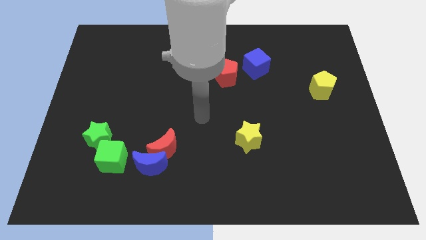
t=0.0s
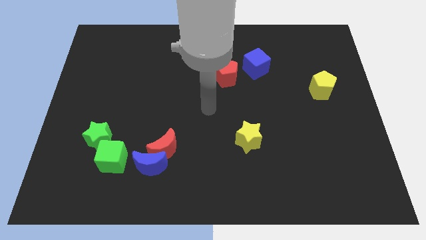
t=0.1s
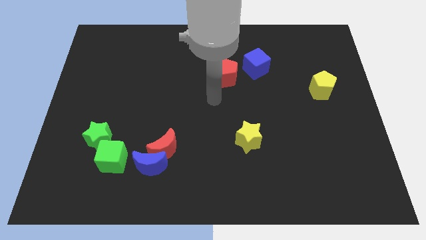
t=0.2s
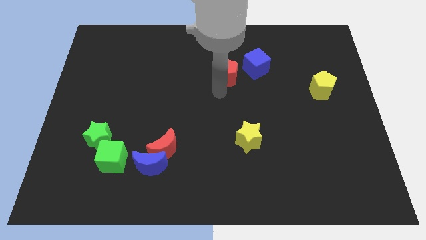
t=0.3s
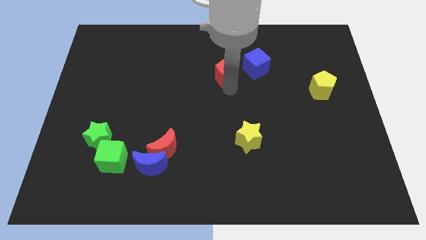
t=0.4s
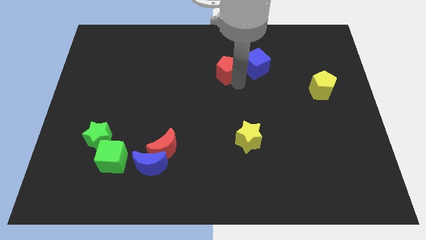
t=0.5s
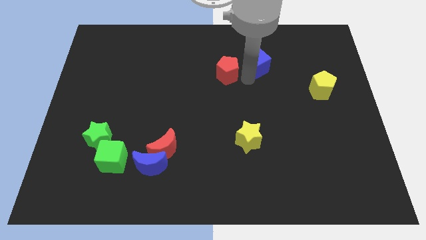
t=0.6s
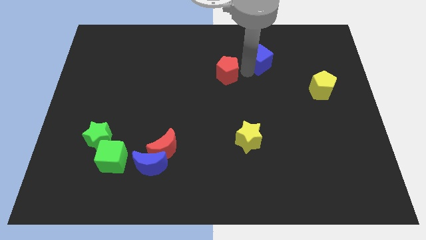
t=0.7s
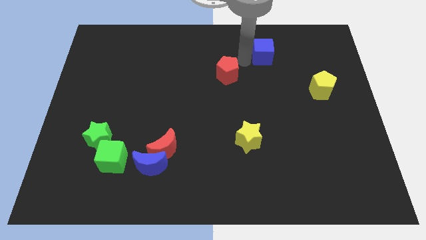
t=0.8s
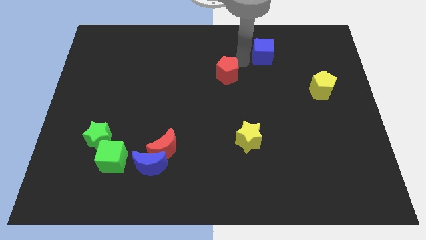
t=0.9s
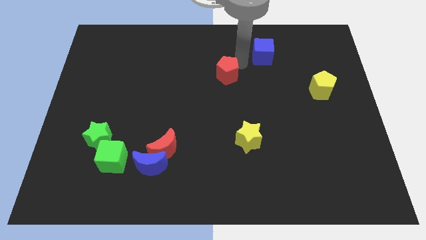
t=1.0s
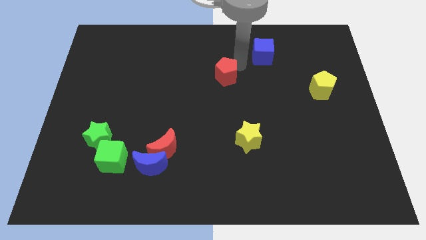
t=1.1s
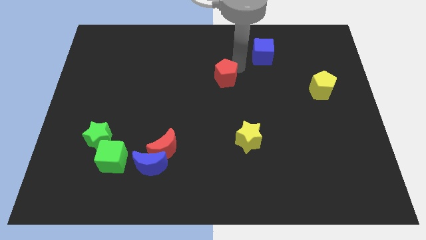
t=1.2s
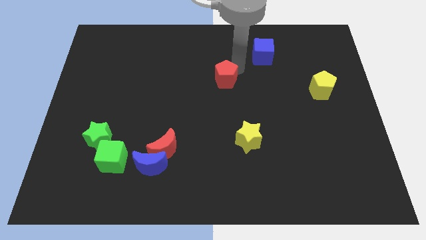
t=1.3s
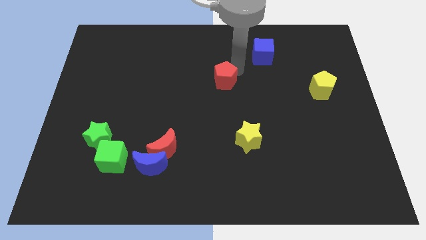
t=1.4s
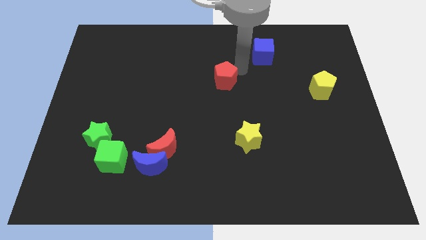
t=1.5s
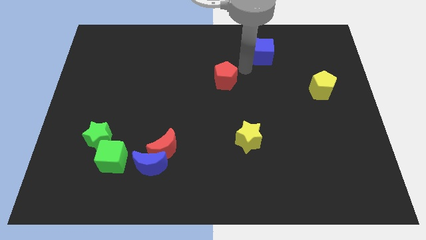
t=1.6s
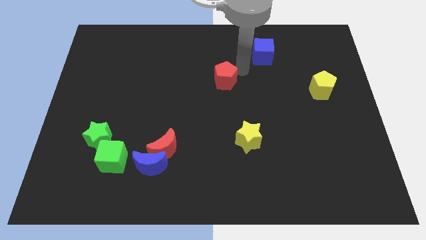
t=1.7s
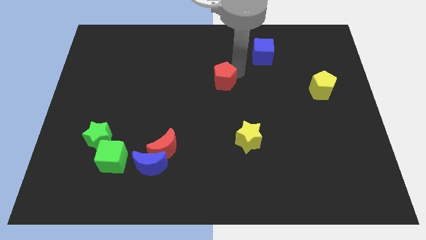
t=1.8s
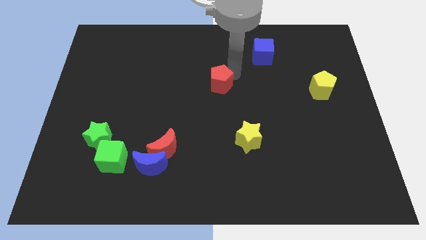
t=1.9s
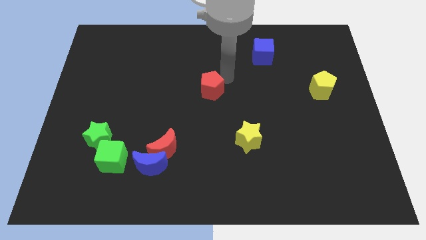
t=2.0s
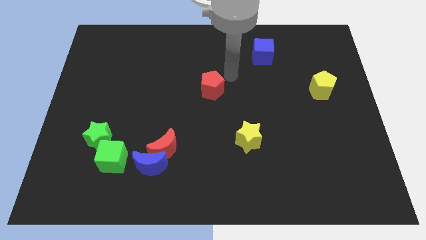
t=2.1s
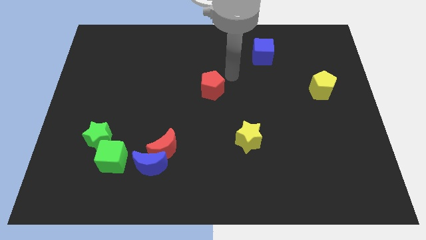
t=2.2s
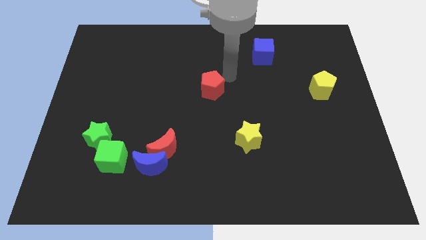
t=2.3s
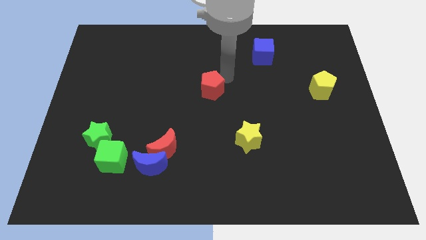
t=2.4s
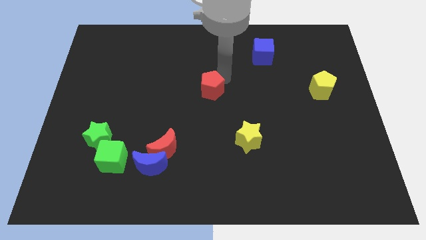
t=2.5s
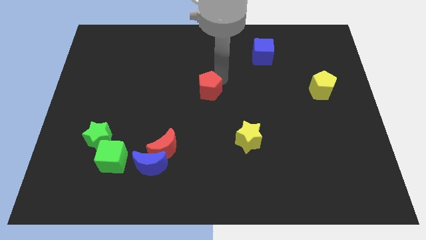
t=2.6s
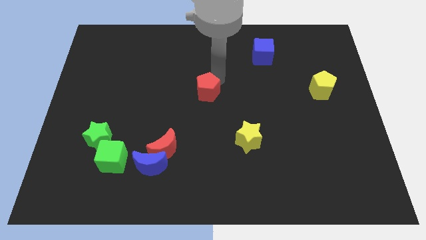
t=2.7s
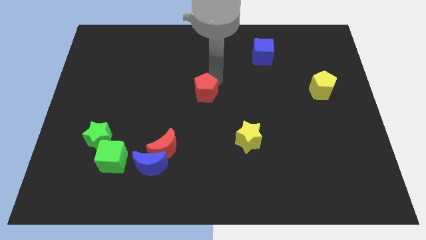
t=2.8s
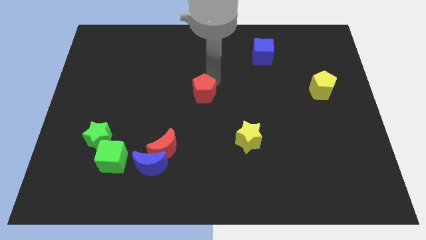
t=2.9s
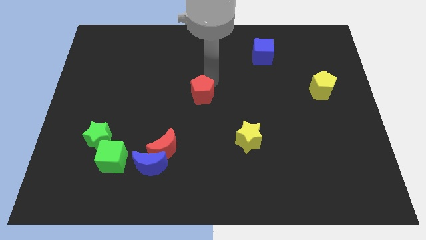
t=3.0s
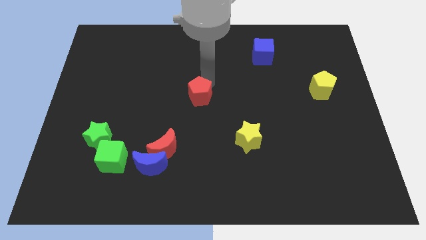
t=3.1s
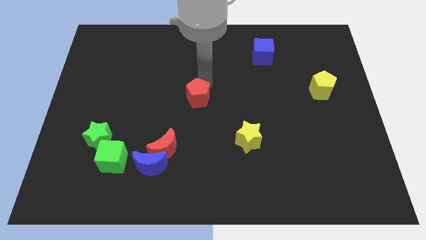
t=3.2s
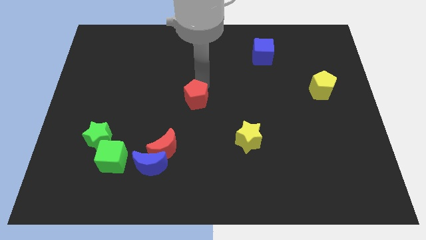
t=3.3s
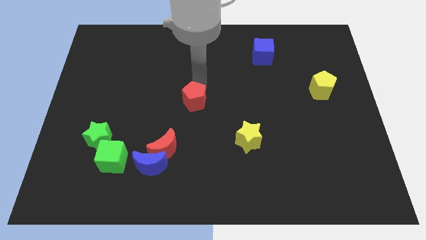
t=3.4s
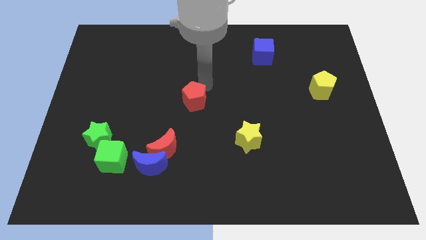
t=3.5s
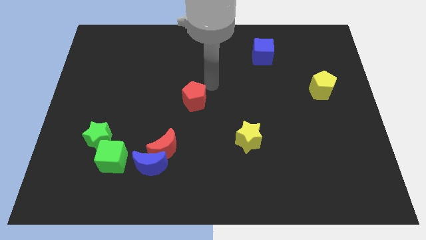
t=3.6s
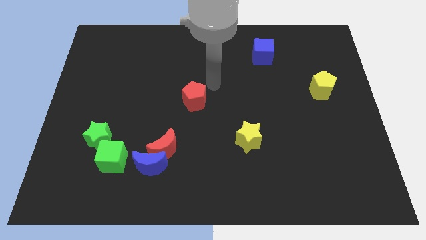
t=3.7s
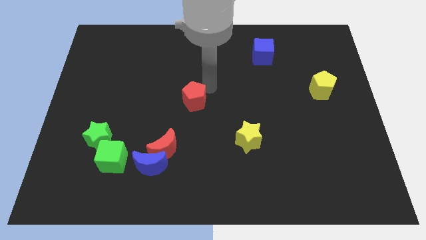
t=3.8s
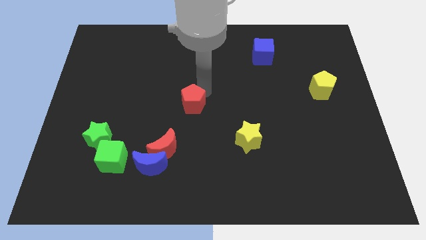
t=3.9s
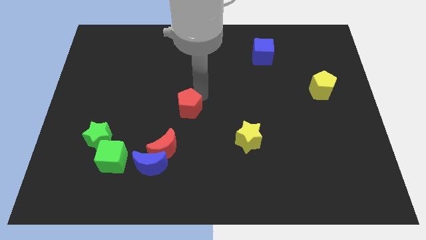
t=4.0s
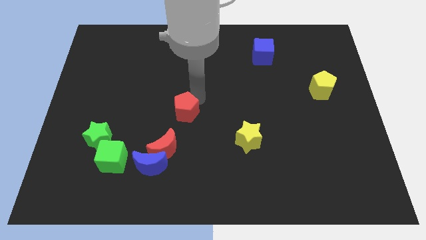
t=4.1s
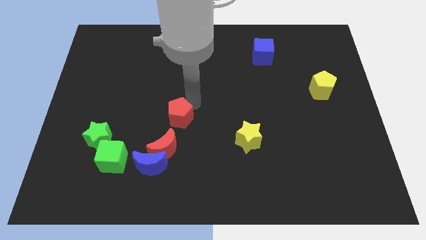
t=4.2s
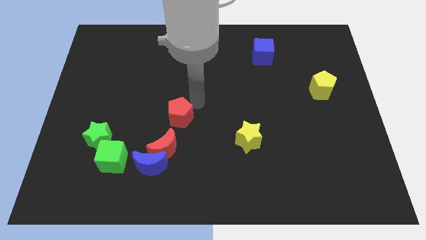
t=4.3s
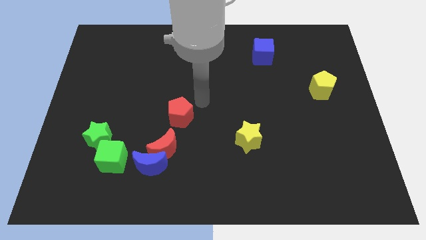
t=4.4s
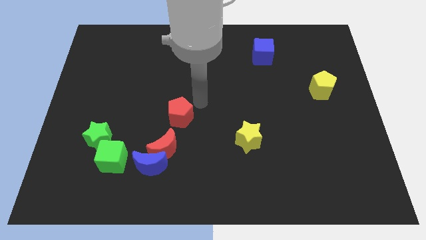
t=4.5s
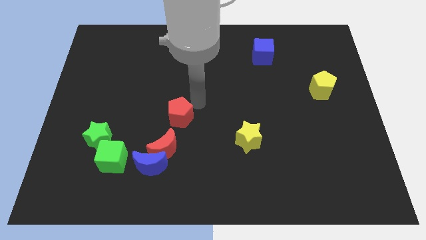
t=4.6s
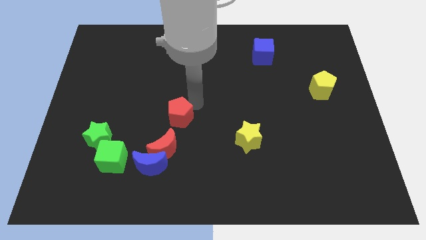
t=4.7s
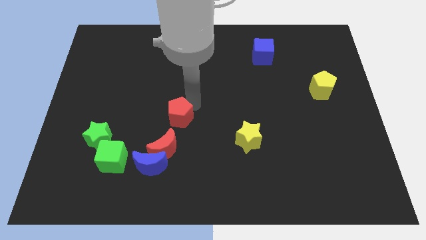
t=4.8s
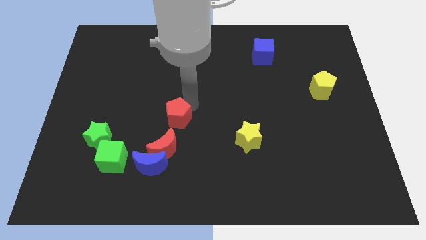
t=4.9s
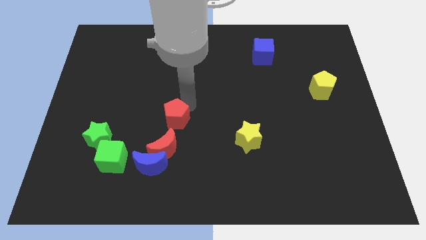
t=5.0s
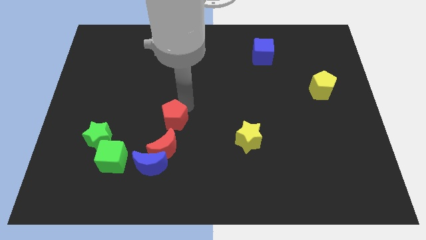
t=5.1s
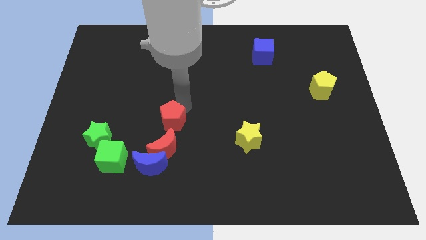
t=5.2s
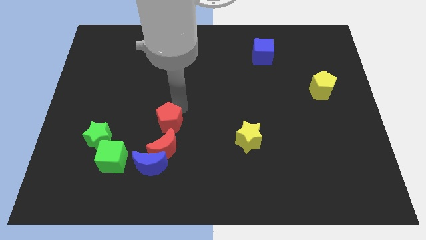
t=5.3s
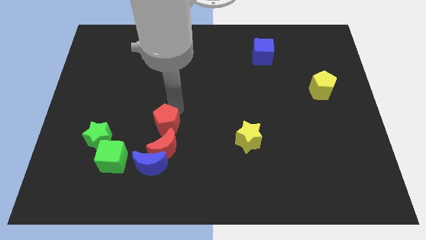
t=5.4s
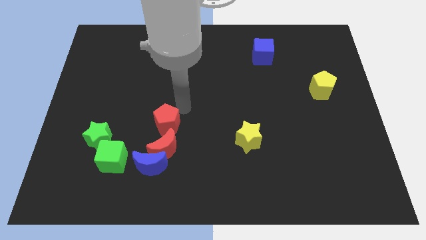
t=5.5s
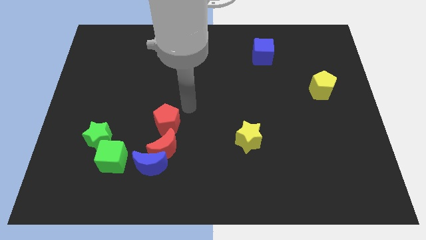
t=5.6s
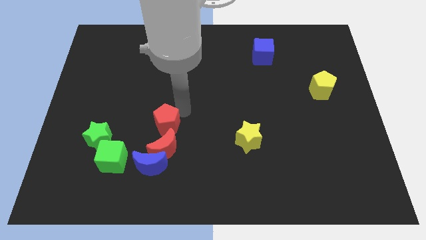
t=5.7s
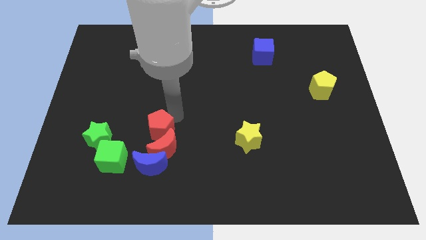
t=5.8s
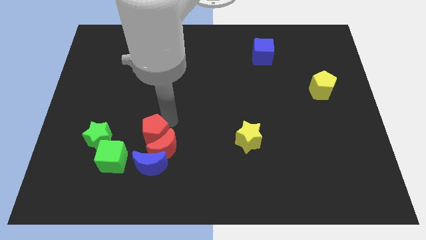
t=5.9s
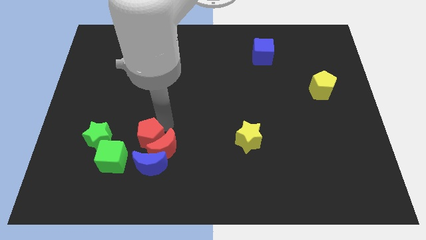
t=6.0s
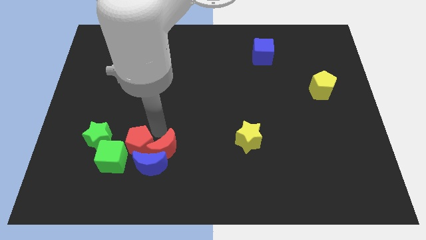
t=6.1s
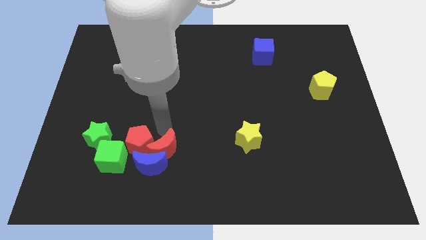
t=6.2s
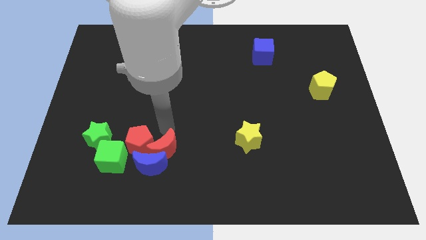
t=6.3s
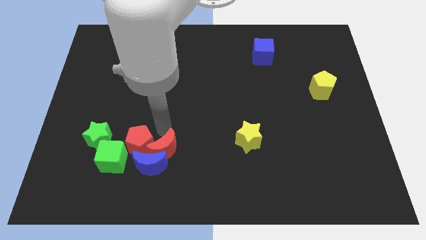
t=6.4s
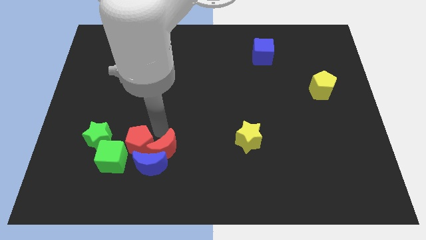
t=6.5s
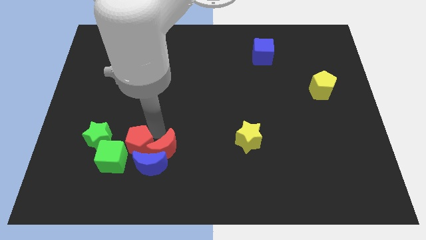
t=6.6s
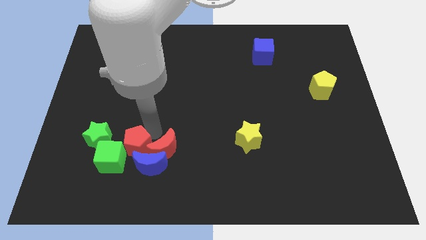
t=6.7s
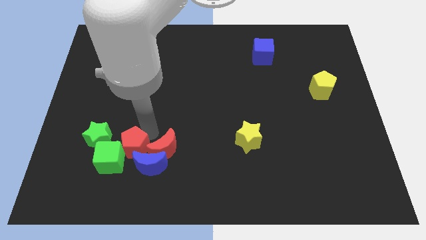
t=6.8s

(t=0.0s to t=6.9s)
push the red pentagon next to the green cube
